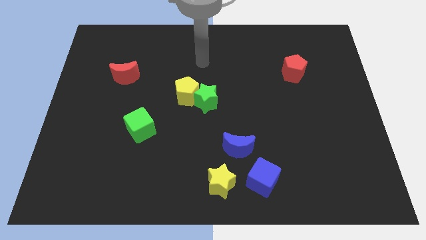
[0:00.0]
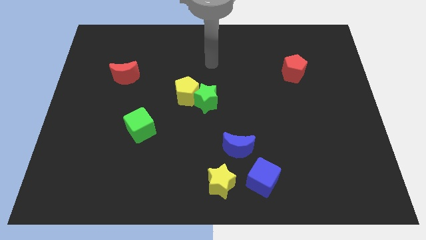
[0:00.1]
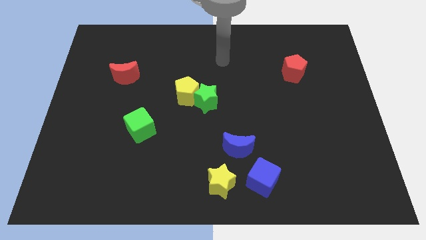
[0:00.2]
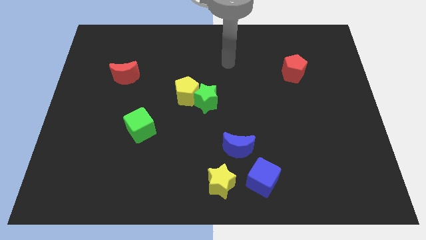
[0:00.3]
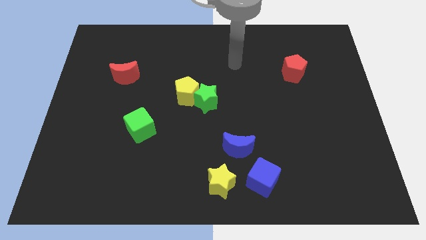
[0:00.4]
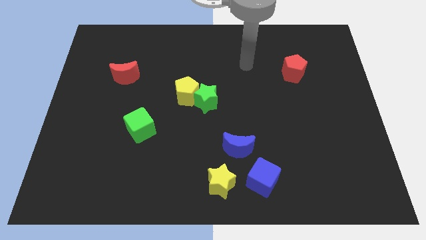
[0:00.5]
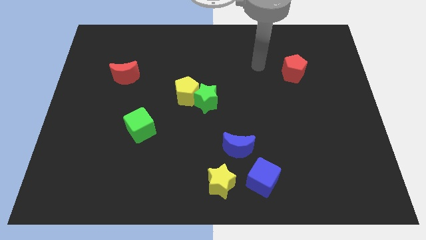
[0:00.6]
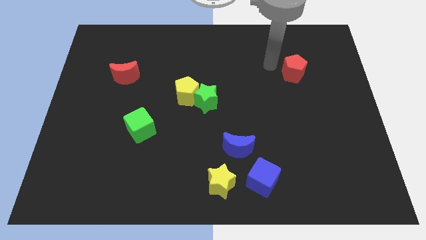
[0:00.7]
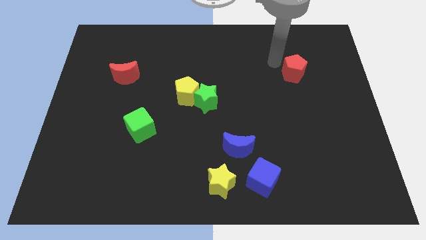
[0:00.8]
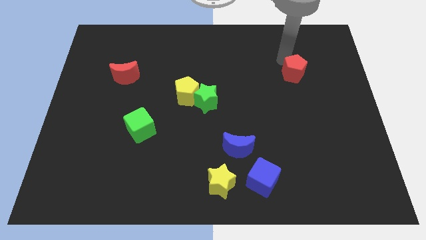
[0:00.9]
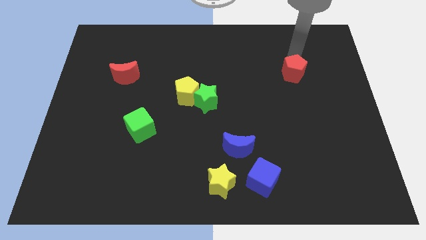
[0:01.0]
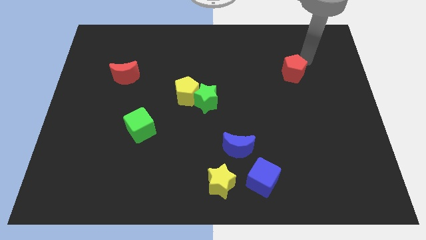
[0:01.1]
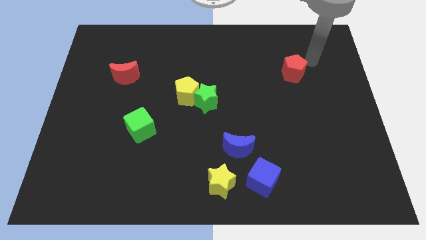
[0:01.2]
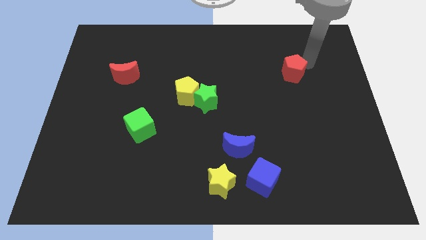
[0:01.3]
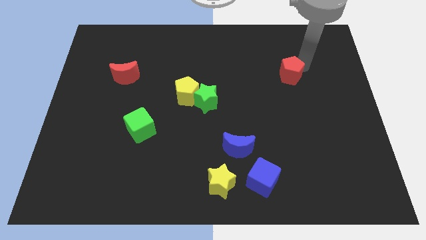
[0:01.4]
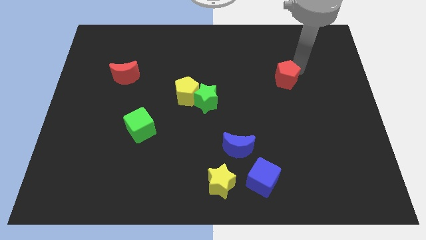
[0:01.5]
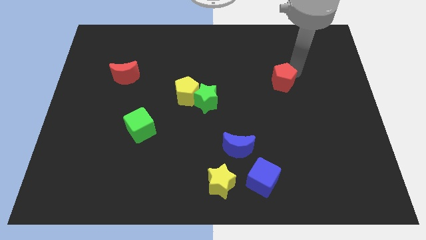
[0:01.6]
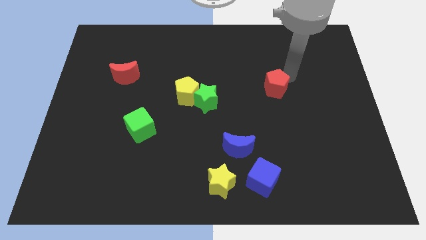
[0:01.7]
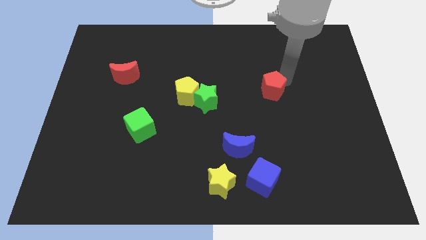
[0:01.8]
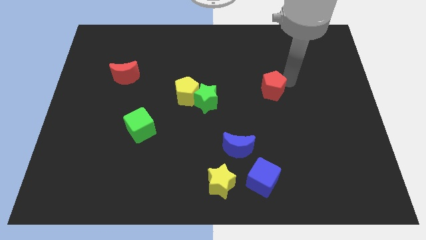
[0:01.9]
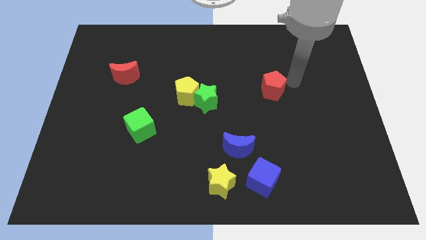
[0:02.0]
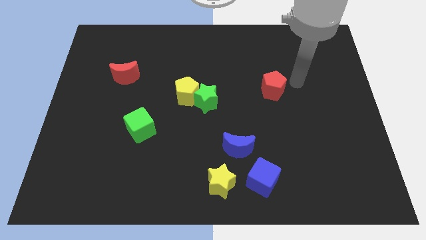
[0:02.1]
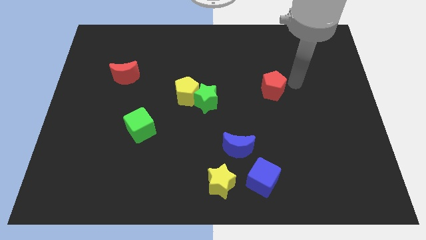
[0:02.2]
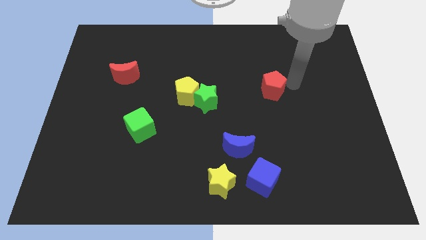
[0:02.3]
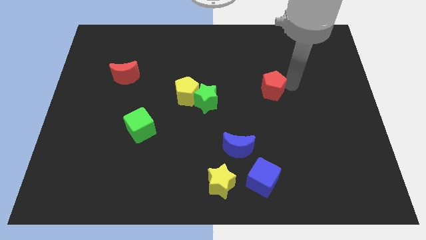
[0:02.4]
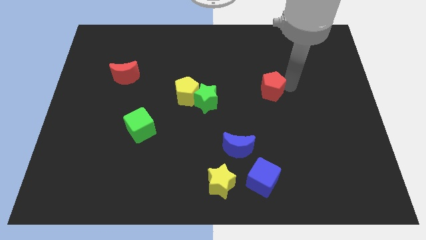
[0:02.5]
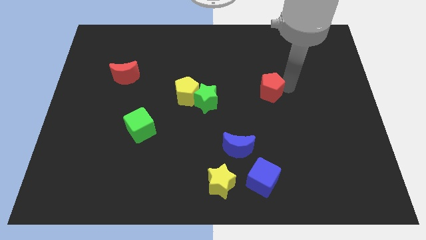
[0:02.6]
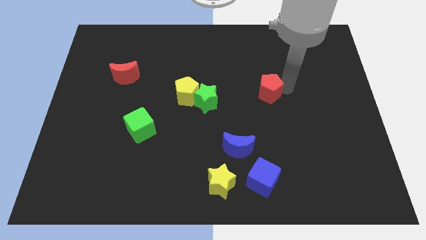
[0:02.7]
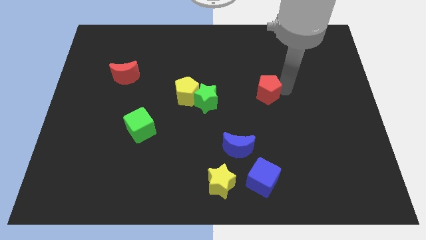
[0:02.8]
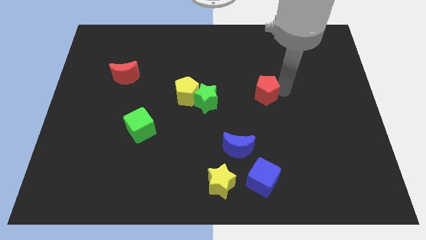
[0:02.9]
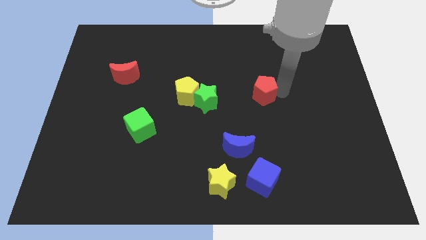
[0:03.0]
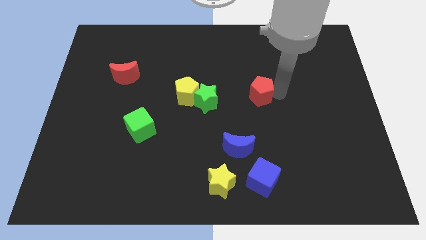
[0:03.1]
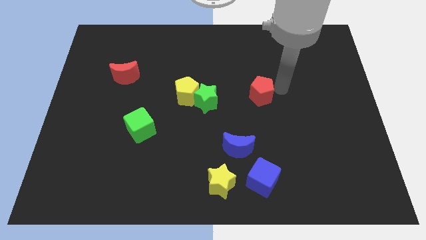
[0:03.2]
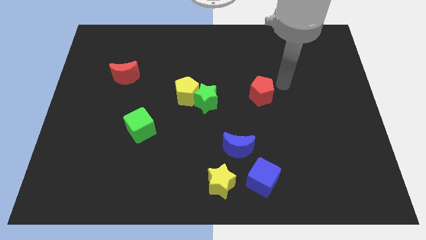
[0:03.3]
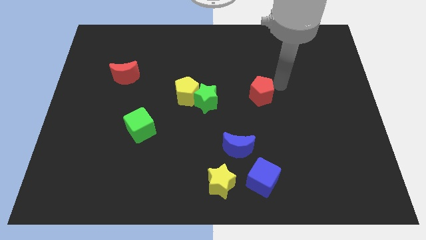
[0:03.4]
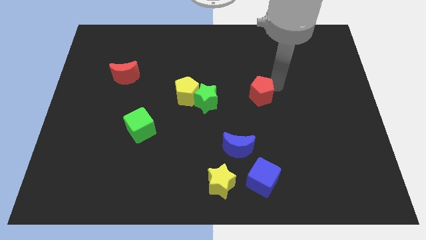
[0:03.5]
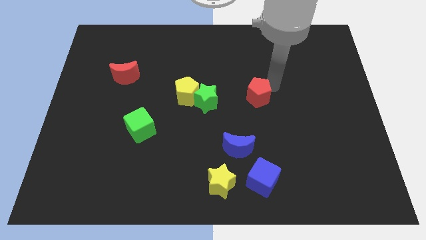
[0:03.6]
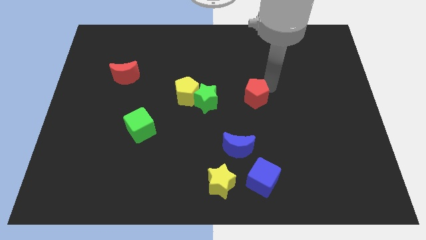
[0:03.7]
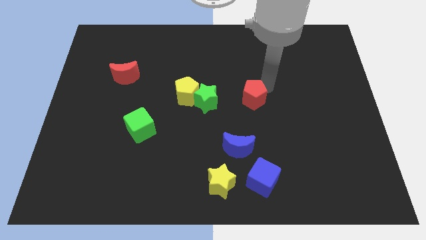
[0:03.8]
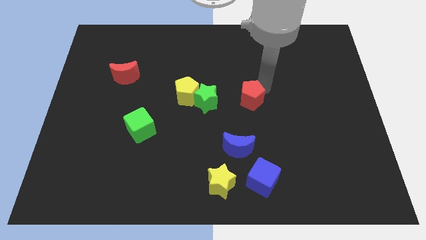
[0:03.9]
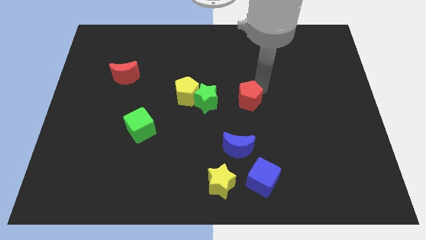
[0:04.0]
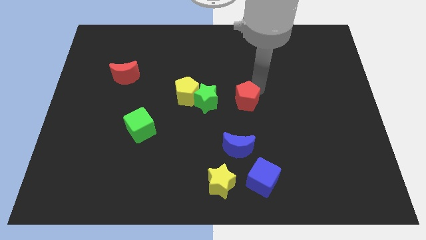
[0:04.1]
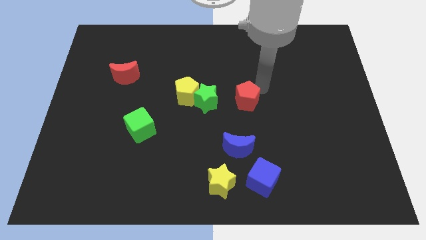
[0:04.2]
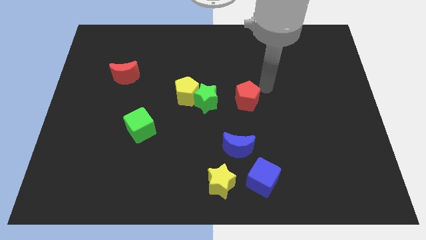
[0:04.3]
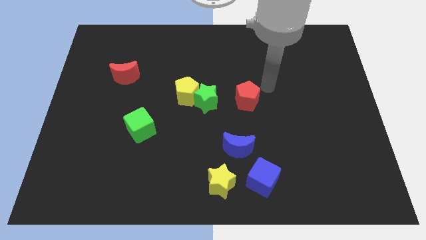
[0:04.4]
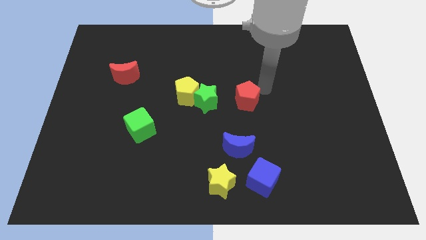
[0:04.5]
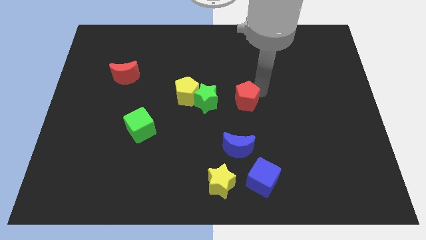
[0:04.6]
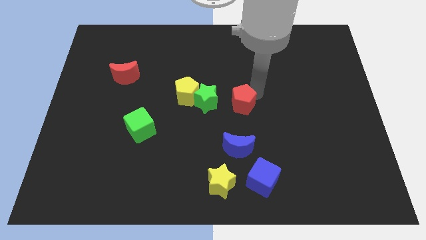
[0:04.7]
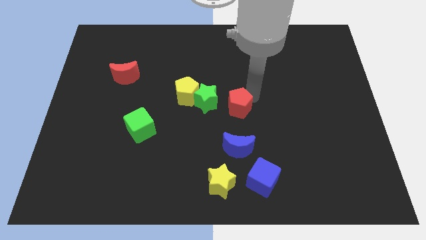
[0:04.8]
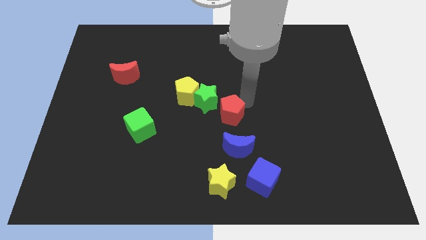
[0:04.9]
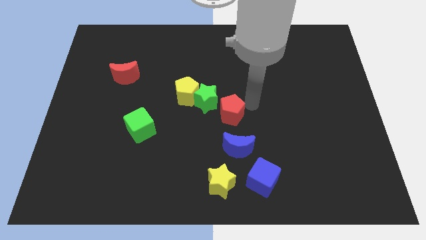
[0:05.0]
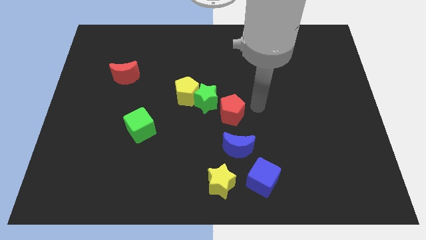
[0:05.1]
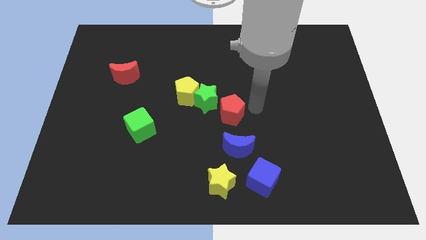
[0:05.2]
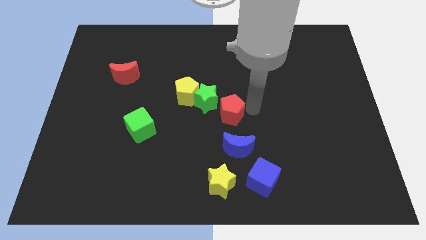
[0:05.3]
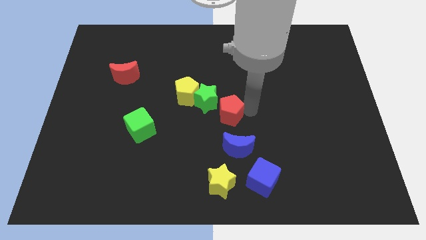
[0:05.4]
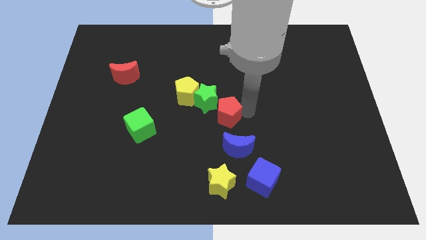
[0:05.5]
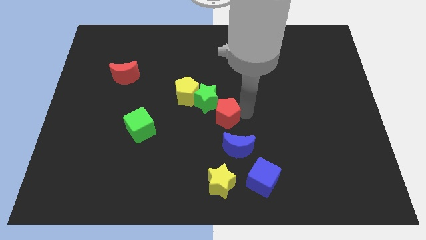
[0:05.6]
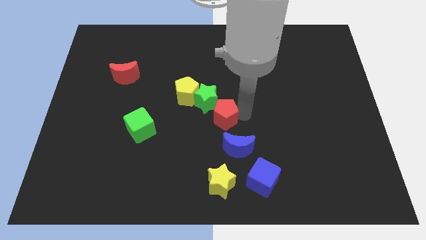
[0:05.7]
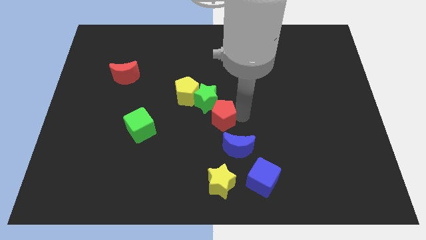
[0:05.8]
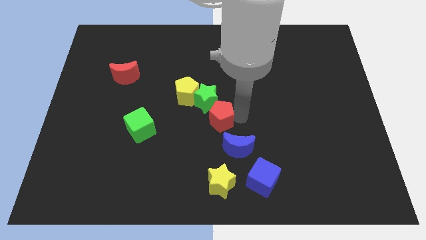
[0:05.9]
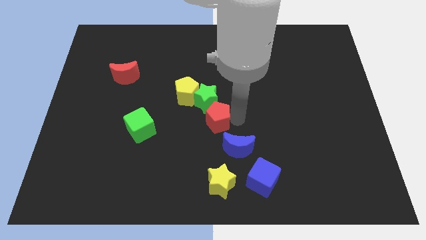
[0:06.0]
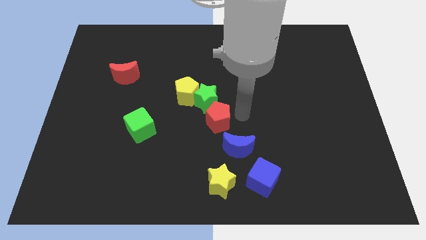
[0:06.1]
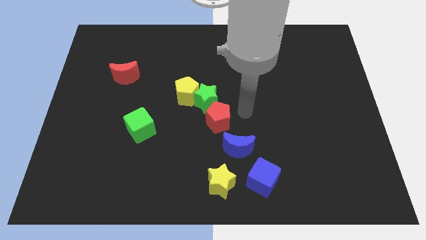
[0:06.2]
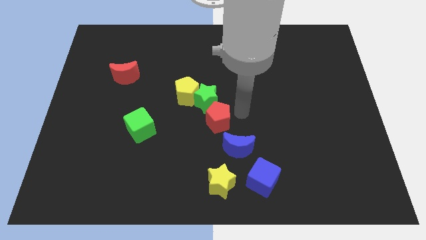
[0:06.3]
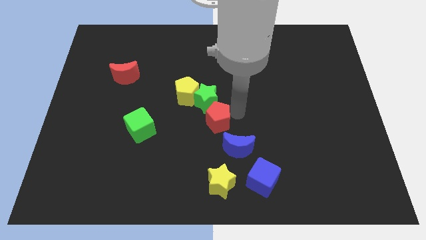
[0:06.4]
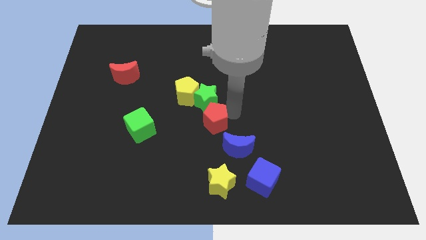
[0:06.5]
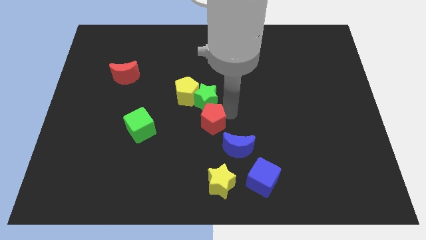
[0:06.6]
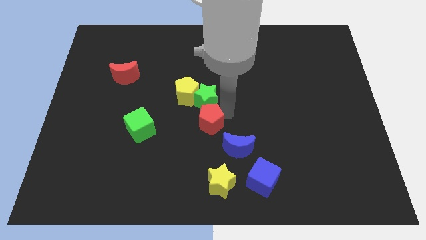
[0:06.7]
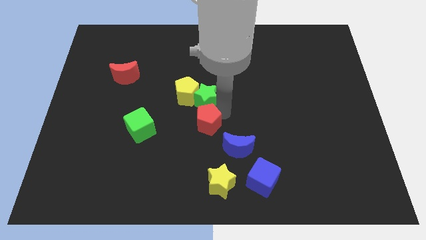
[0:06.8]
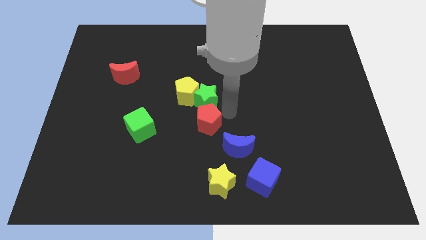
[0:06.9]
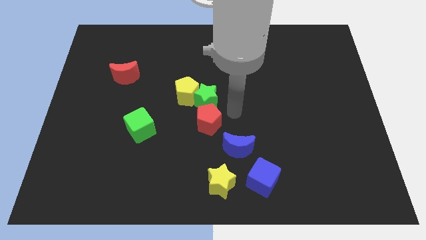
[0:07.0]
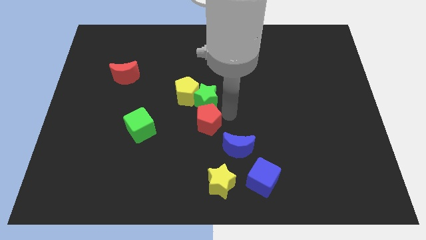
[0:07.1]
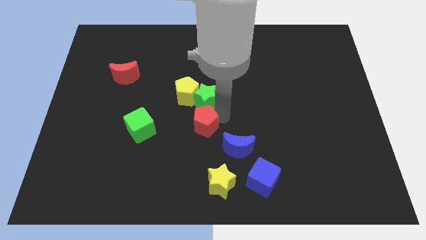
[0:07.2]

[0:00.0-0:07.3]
push the red pentagon below the yellow pentagon
